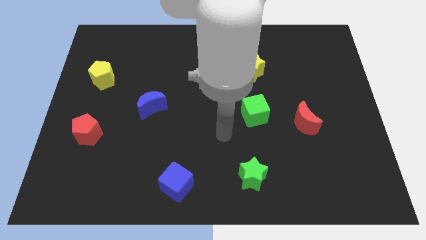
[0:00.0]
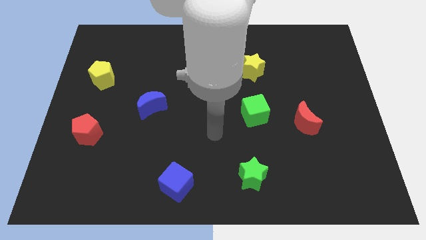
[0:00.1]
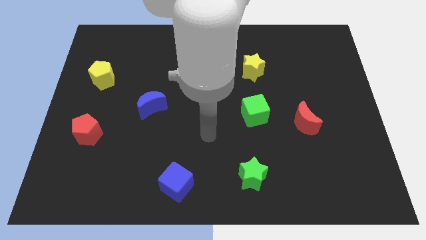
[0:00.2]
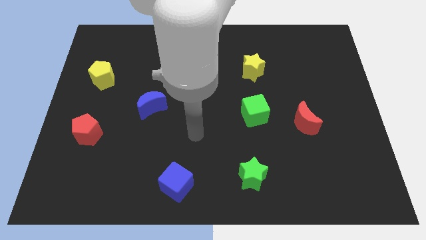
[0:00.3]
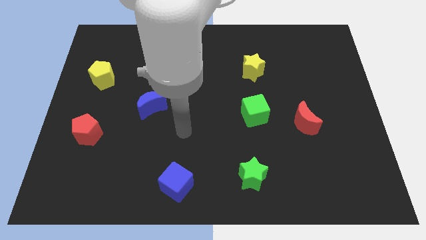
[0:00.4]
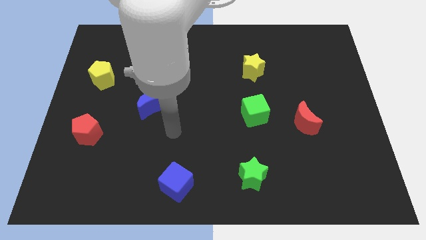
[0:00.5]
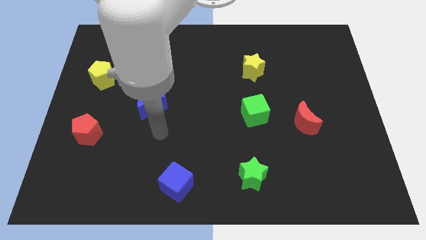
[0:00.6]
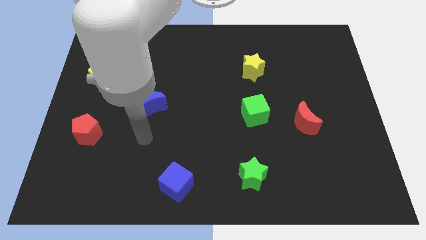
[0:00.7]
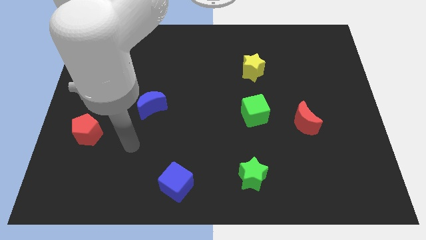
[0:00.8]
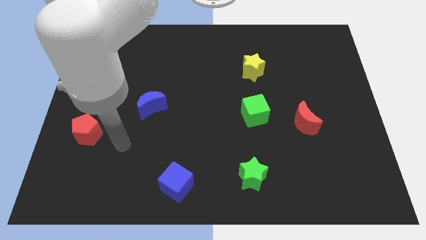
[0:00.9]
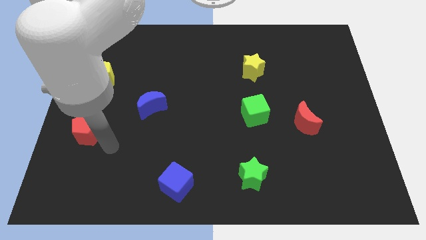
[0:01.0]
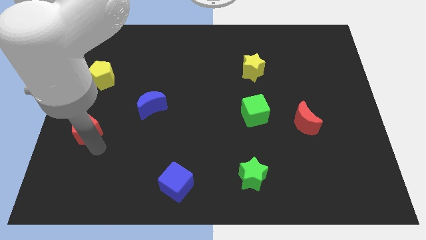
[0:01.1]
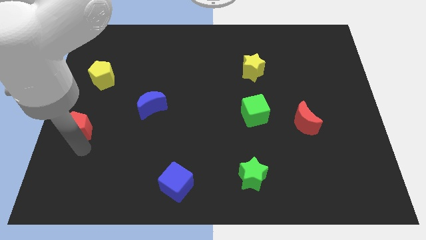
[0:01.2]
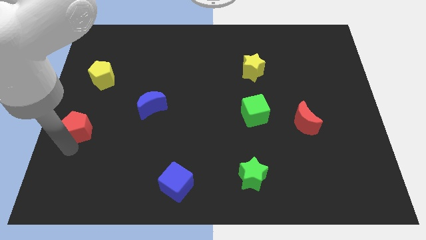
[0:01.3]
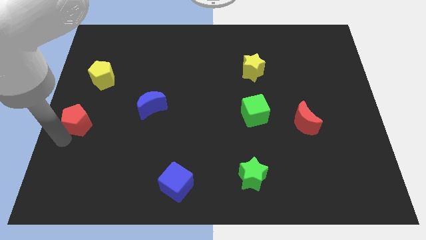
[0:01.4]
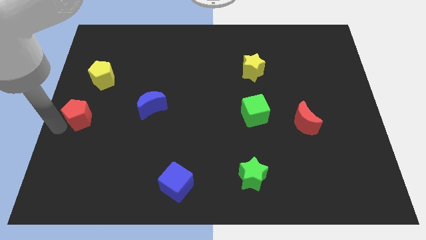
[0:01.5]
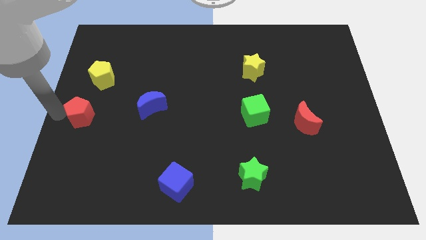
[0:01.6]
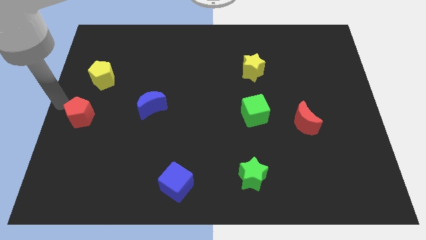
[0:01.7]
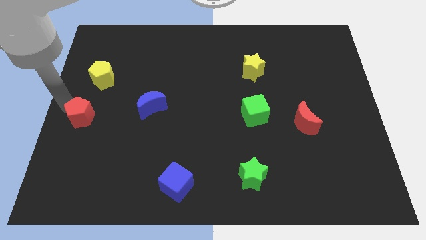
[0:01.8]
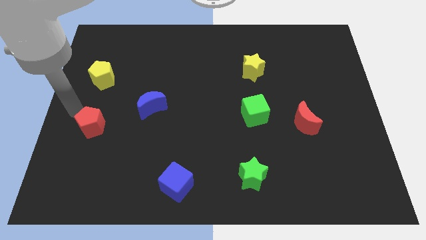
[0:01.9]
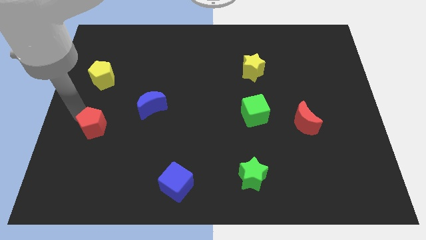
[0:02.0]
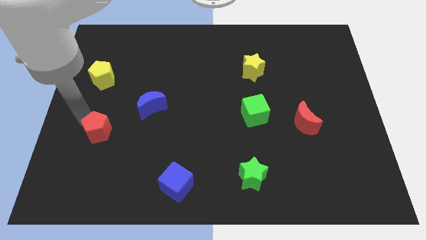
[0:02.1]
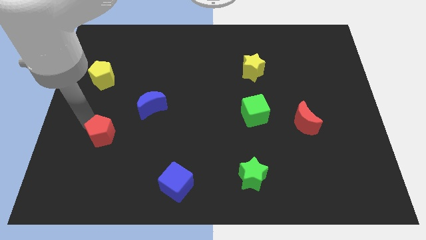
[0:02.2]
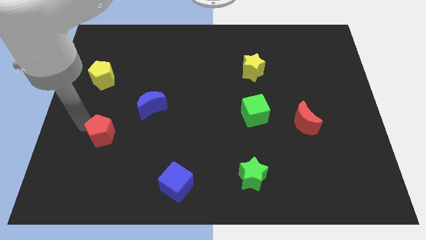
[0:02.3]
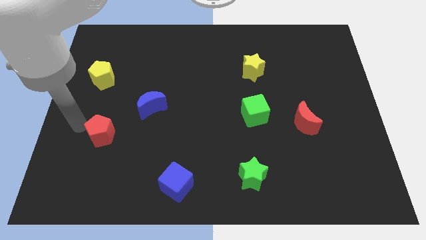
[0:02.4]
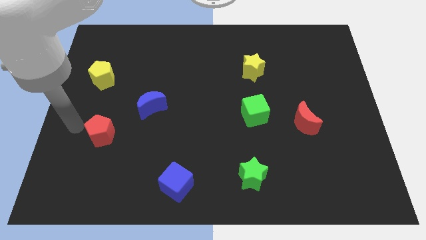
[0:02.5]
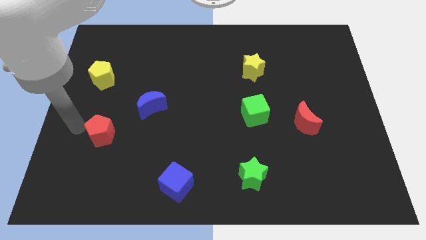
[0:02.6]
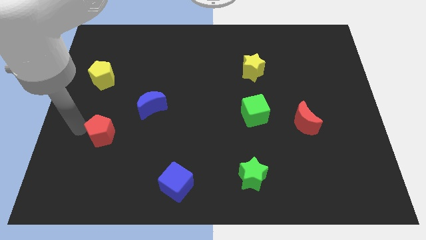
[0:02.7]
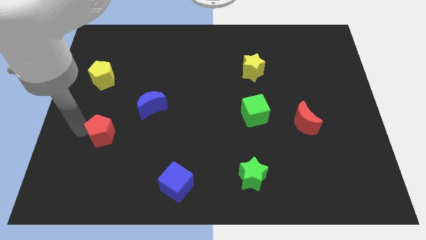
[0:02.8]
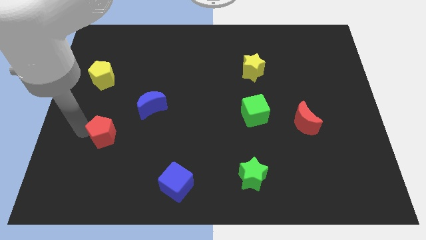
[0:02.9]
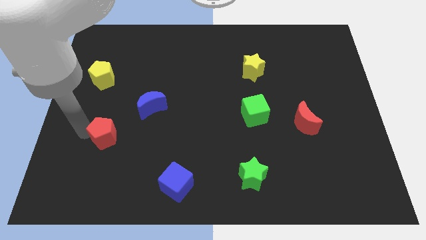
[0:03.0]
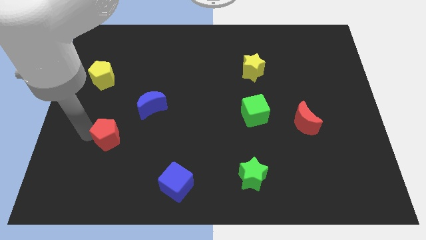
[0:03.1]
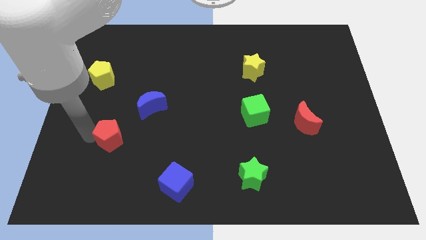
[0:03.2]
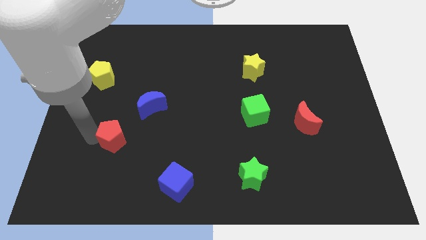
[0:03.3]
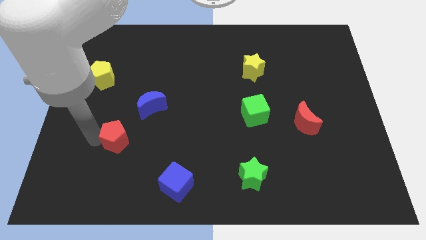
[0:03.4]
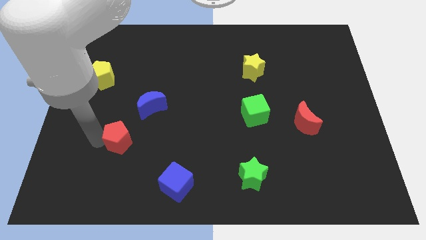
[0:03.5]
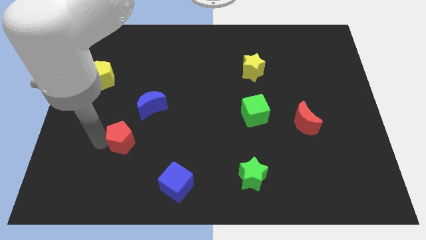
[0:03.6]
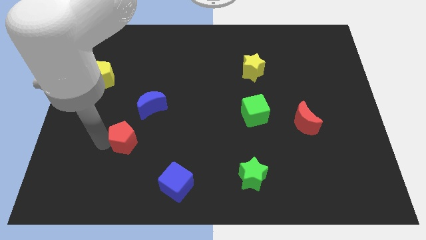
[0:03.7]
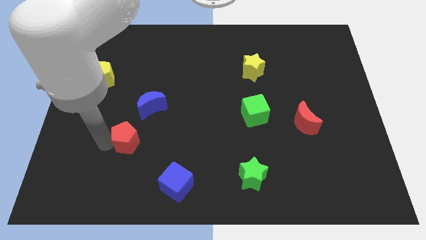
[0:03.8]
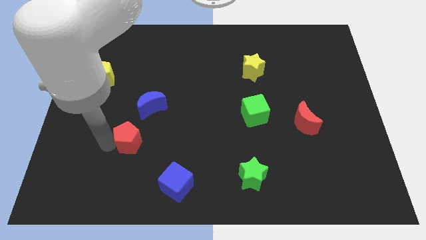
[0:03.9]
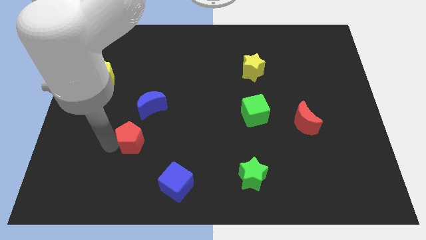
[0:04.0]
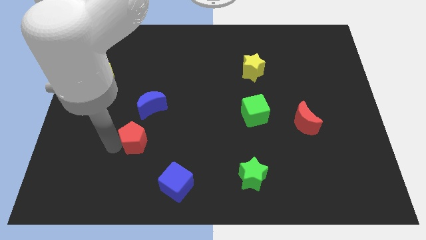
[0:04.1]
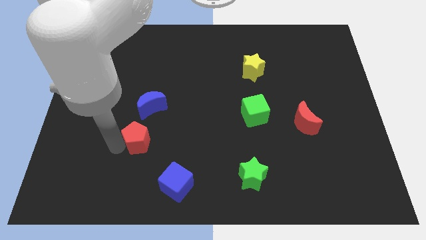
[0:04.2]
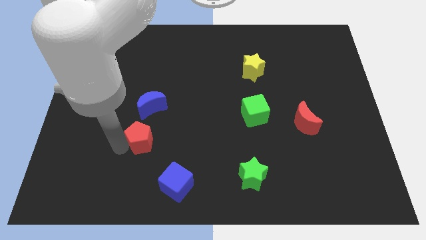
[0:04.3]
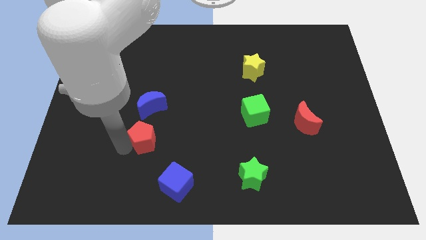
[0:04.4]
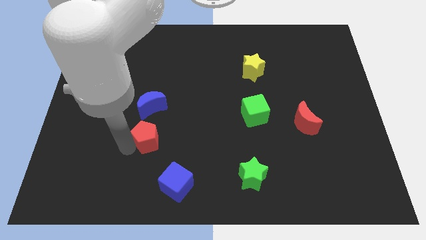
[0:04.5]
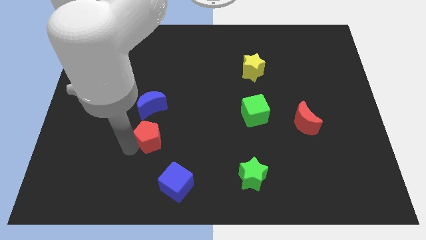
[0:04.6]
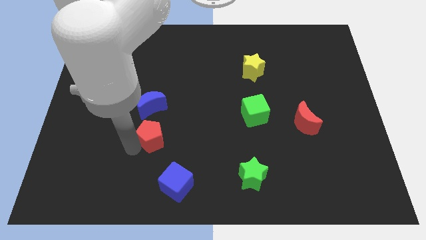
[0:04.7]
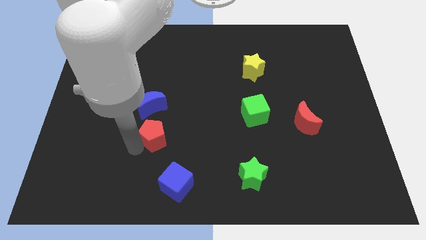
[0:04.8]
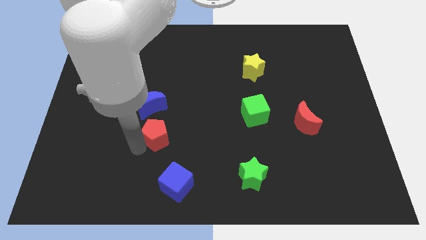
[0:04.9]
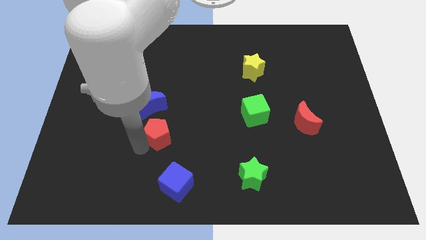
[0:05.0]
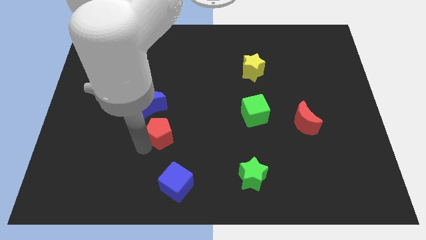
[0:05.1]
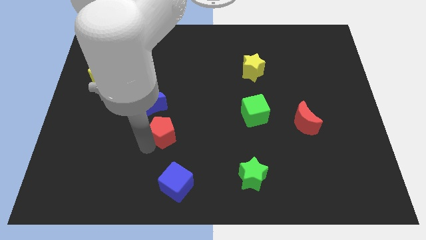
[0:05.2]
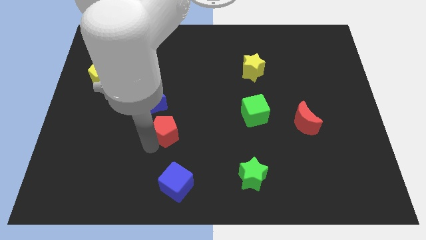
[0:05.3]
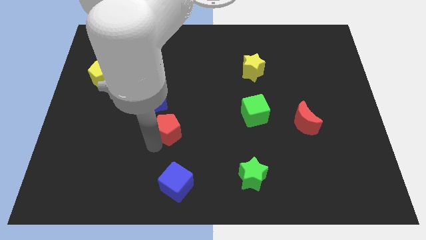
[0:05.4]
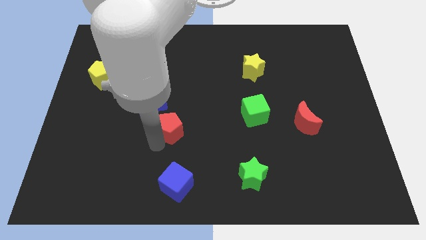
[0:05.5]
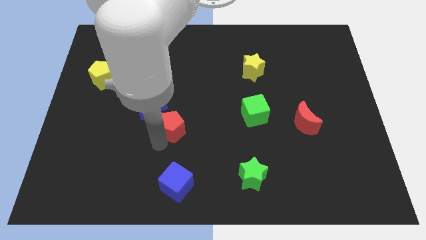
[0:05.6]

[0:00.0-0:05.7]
slide the red pentagon to the center of the board

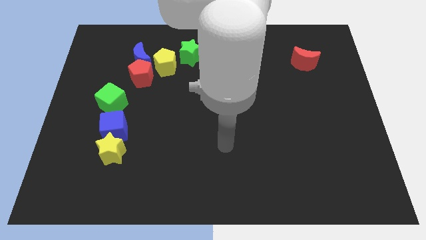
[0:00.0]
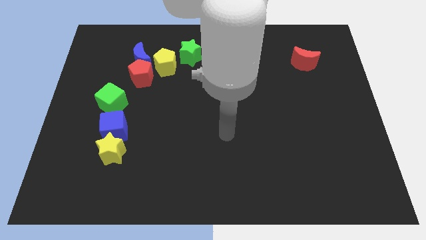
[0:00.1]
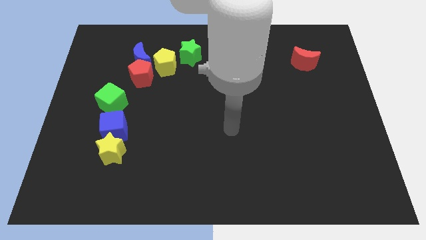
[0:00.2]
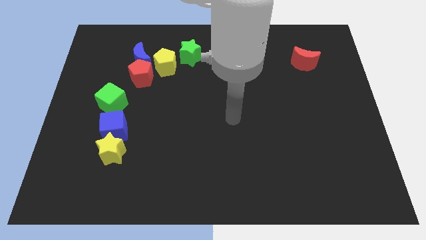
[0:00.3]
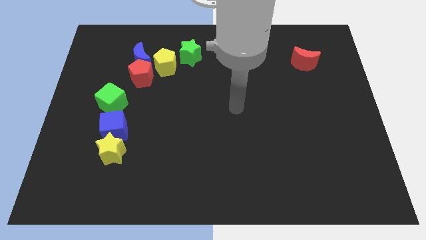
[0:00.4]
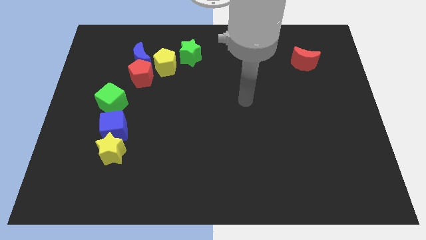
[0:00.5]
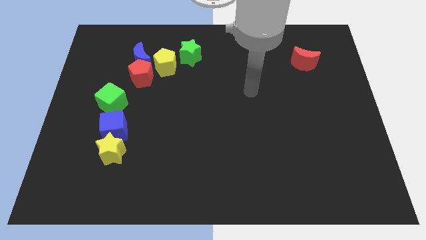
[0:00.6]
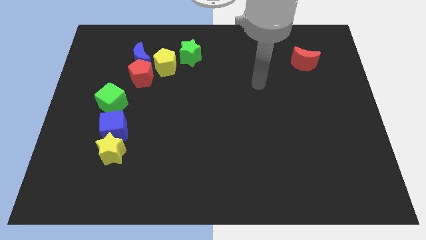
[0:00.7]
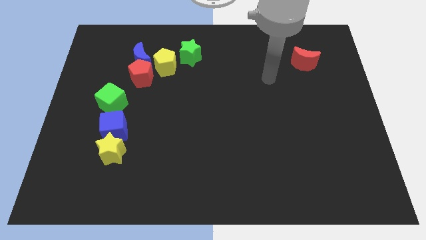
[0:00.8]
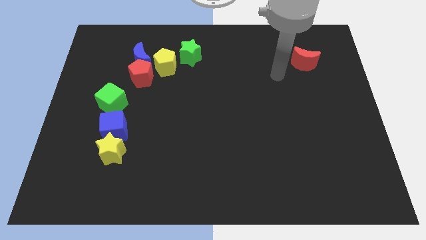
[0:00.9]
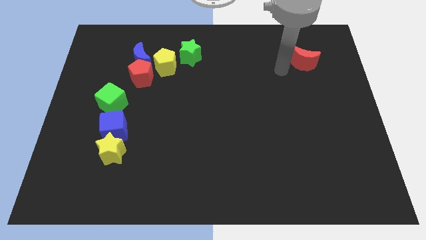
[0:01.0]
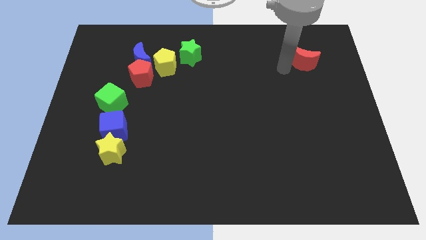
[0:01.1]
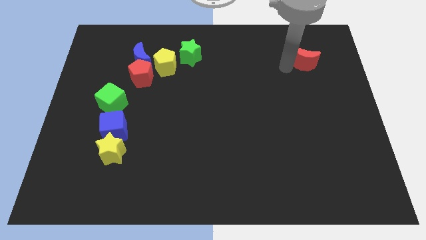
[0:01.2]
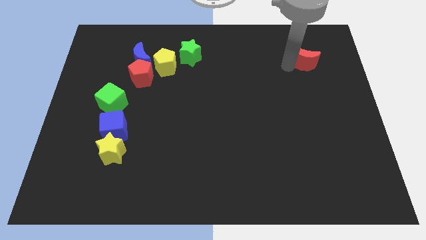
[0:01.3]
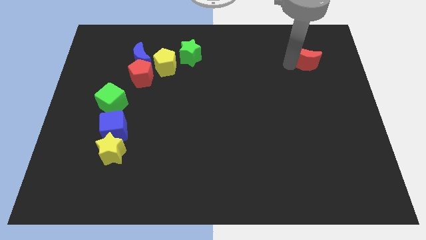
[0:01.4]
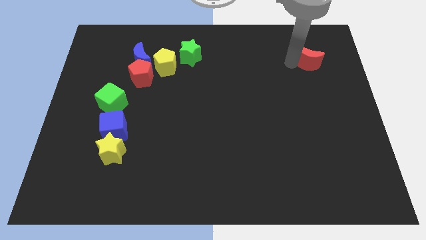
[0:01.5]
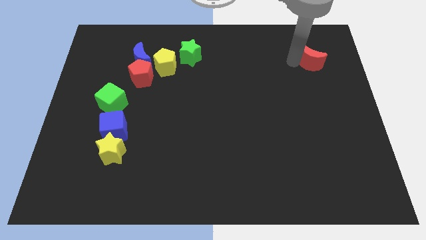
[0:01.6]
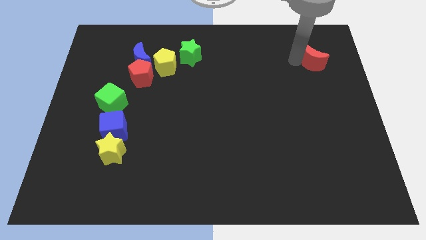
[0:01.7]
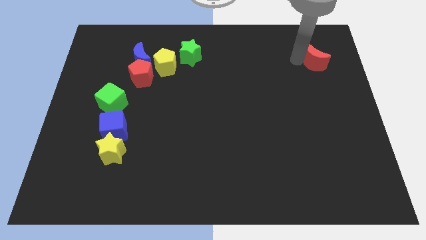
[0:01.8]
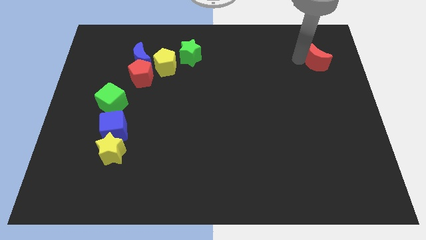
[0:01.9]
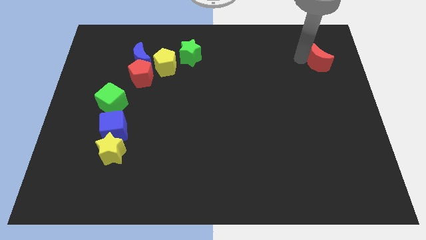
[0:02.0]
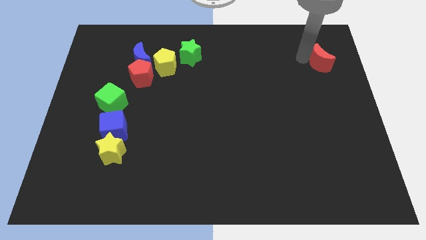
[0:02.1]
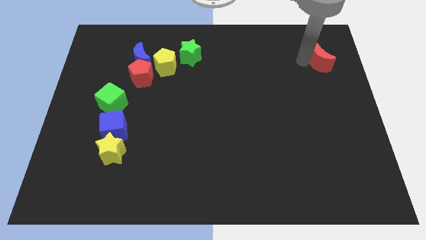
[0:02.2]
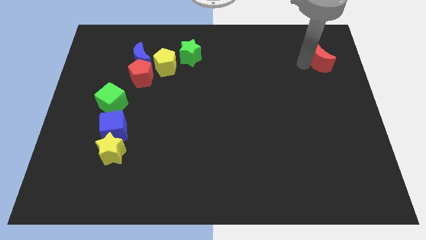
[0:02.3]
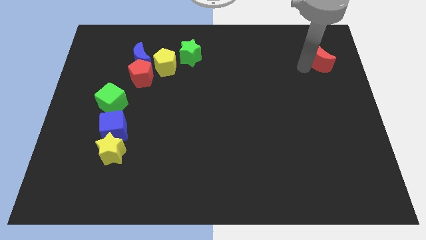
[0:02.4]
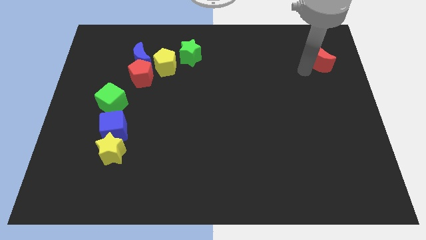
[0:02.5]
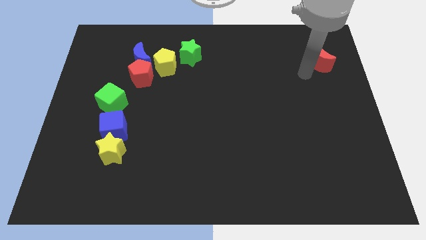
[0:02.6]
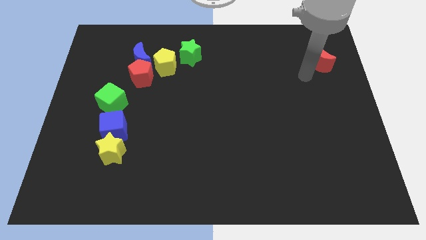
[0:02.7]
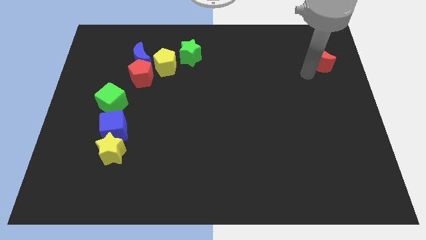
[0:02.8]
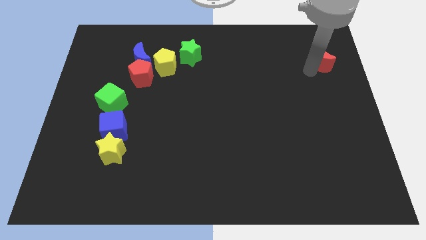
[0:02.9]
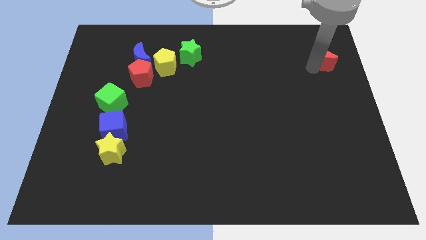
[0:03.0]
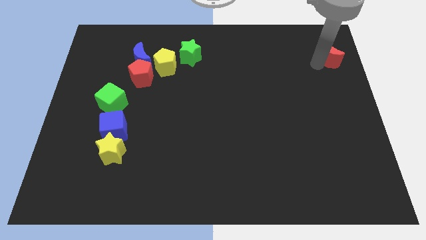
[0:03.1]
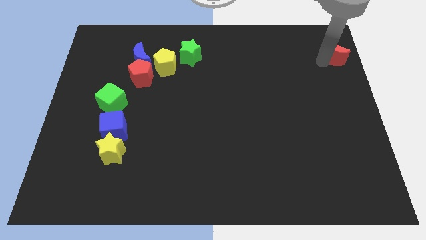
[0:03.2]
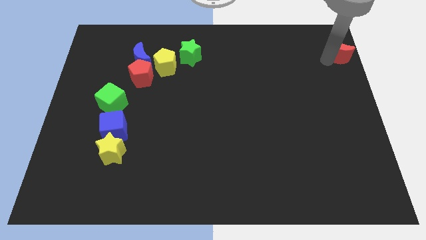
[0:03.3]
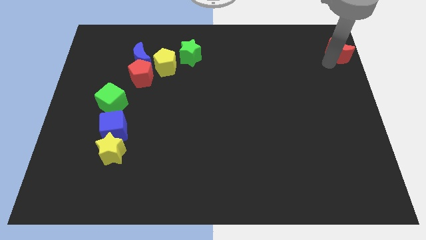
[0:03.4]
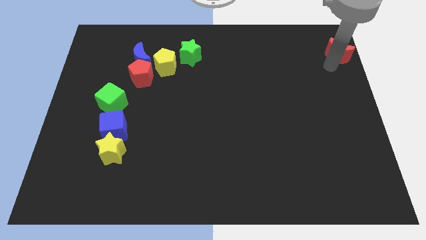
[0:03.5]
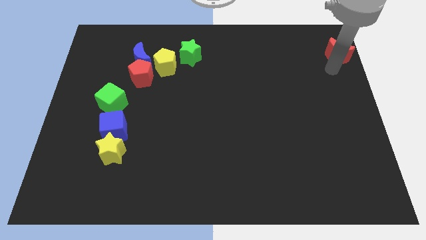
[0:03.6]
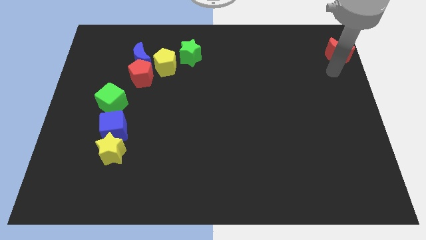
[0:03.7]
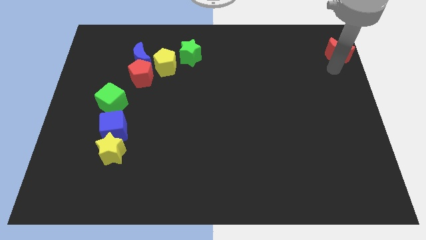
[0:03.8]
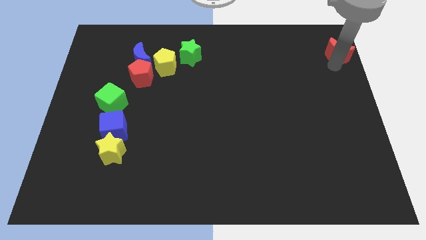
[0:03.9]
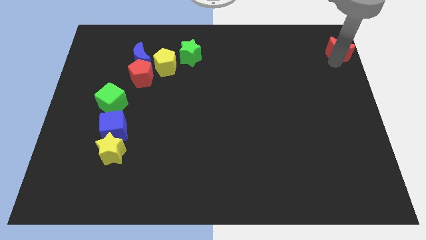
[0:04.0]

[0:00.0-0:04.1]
put the red moon to the top right corner
